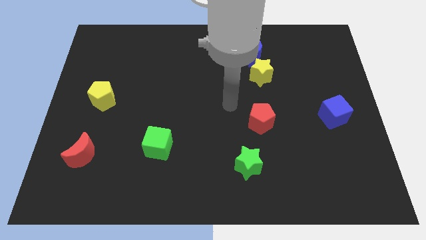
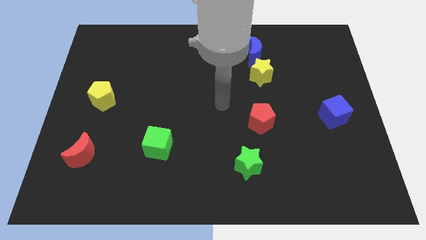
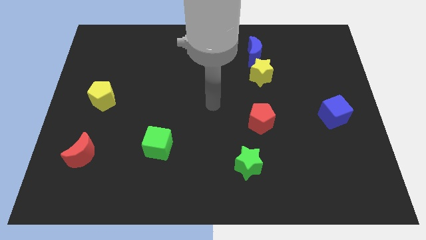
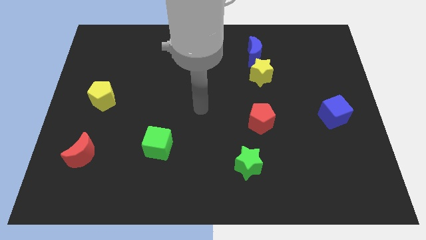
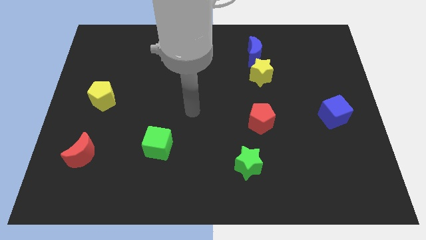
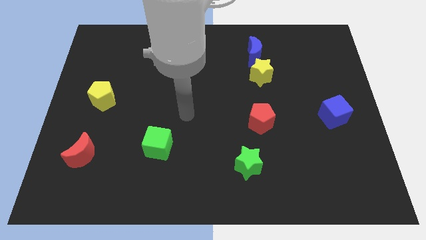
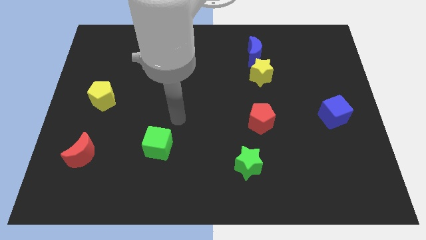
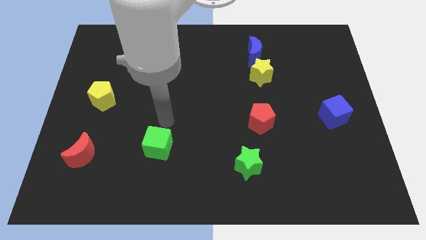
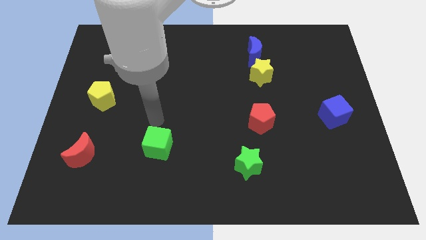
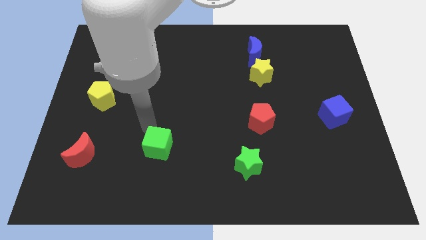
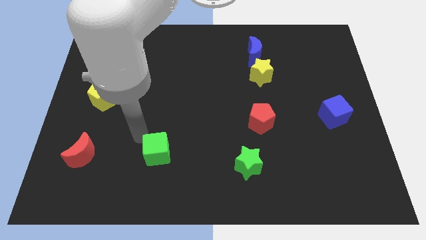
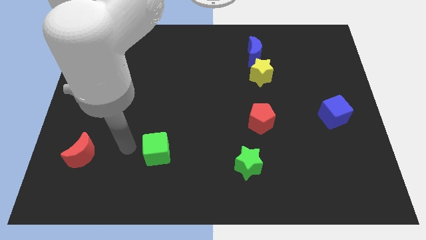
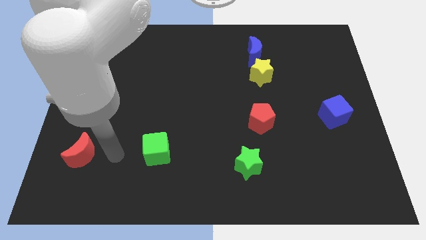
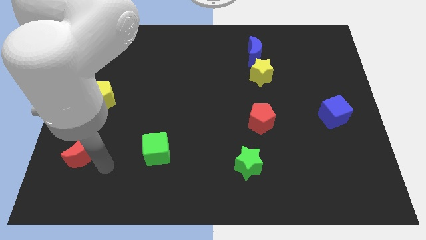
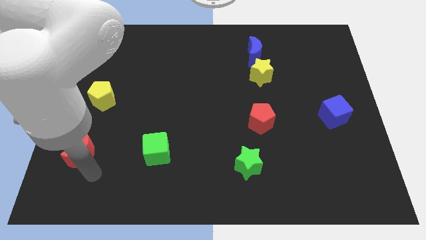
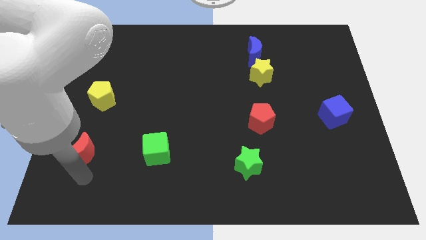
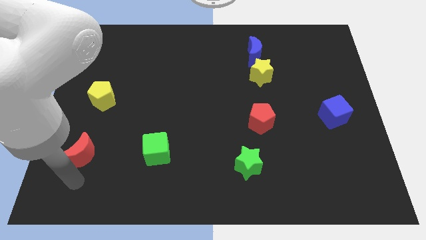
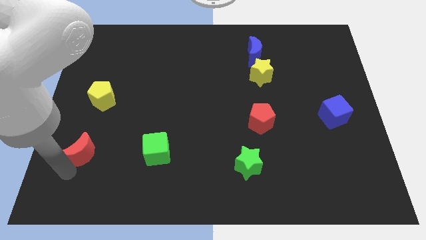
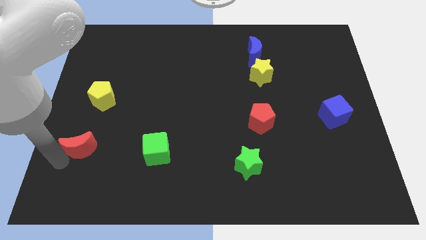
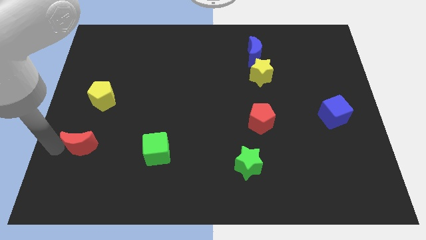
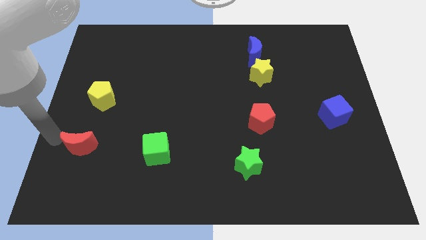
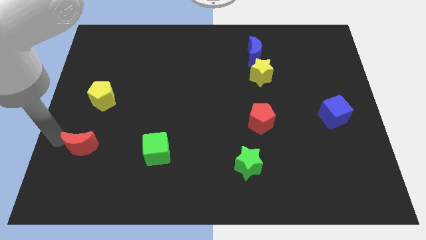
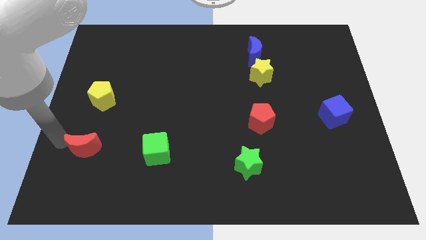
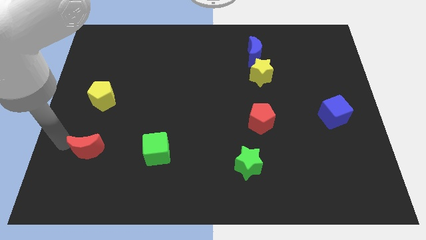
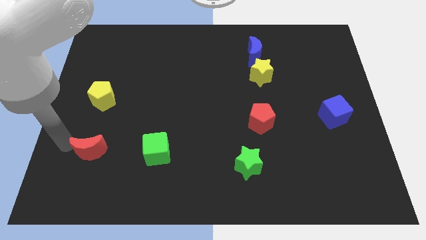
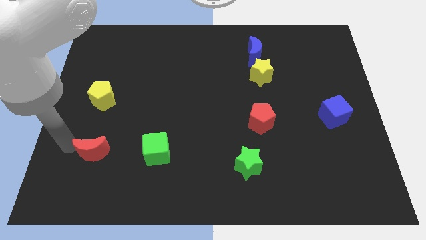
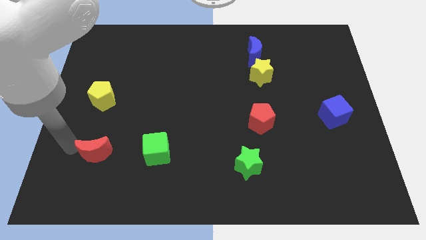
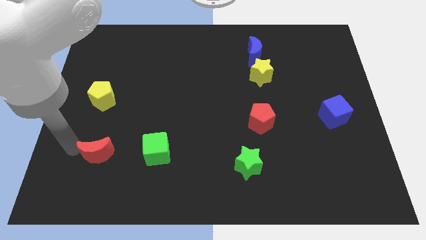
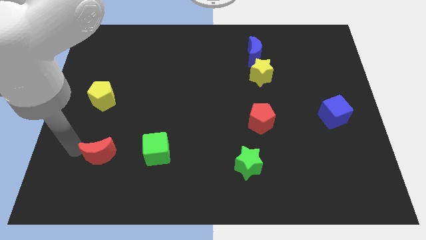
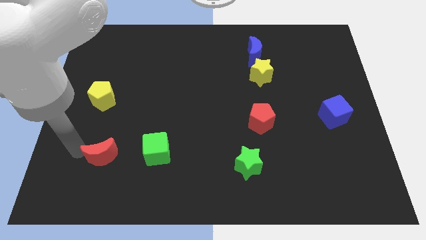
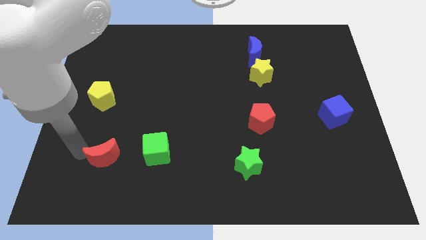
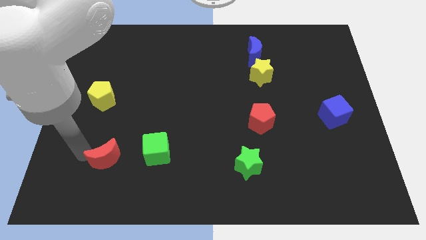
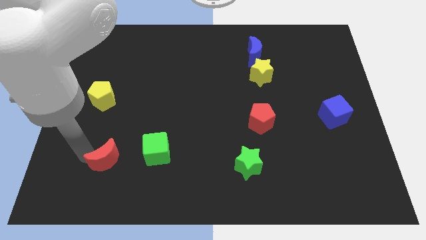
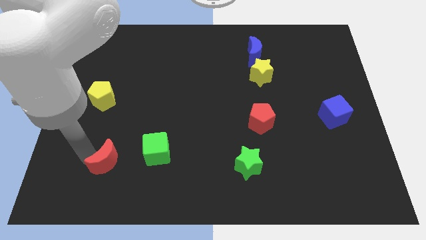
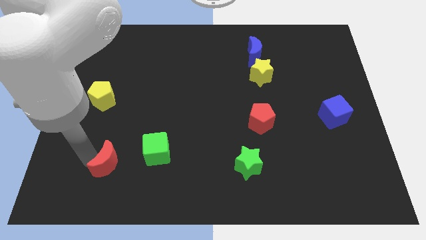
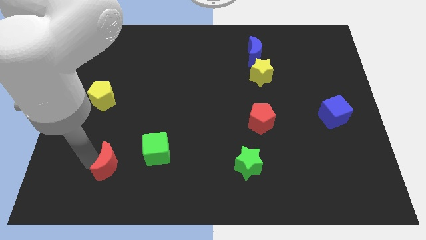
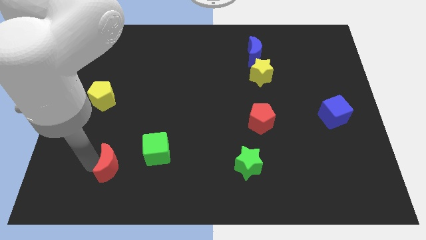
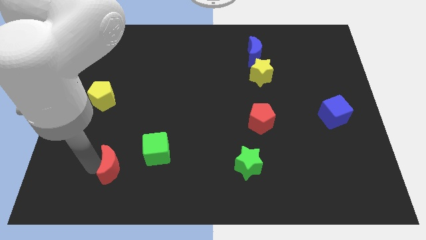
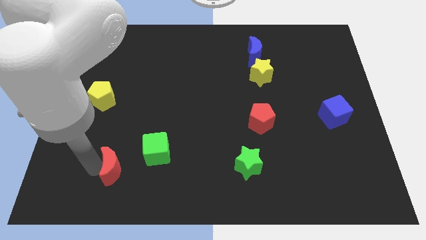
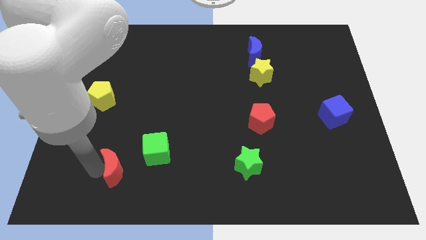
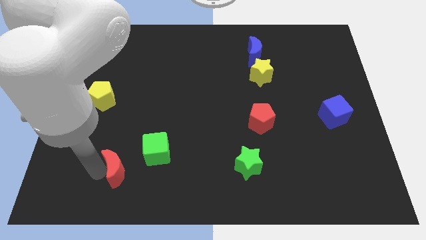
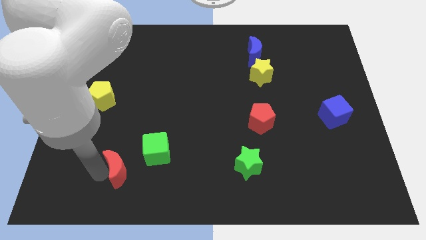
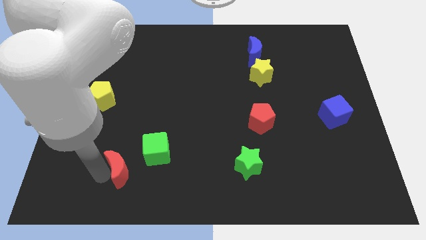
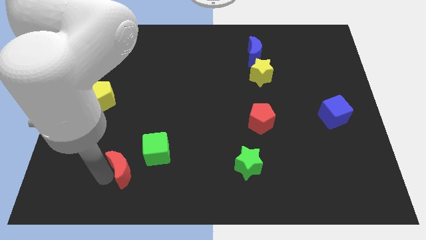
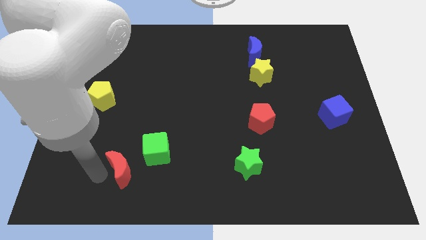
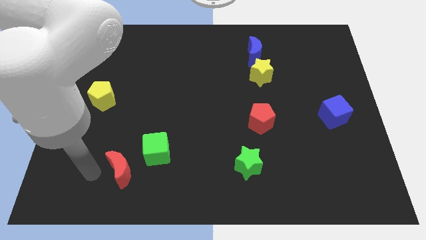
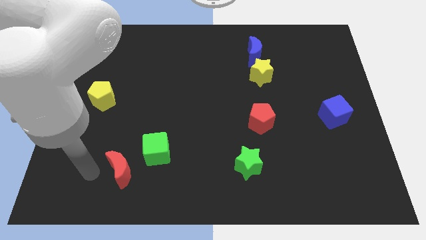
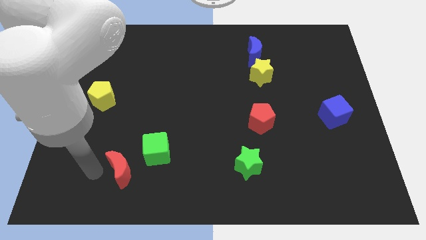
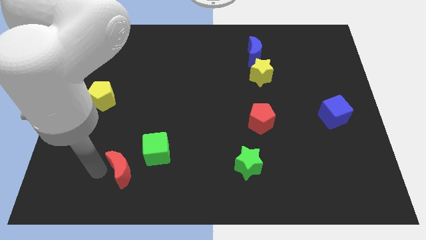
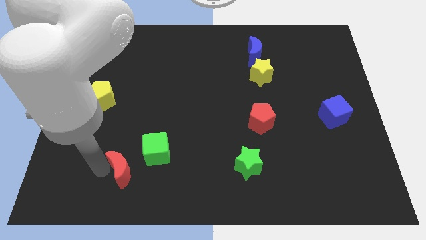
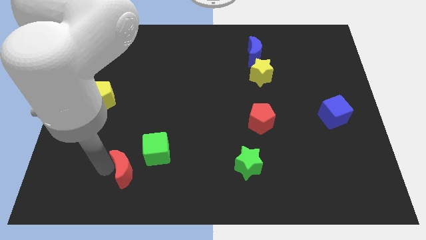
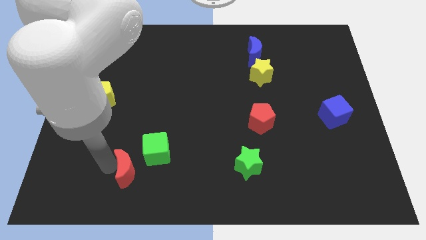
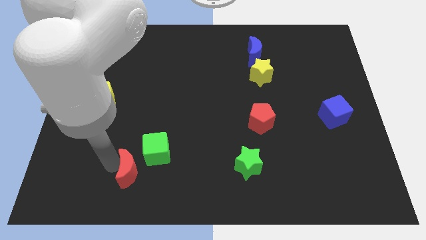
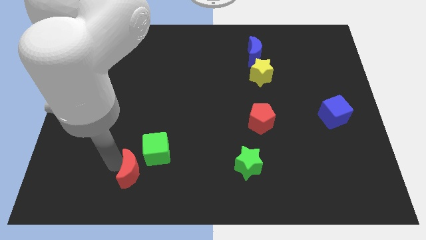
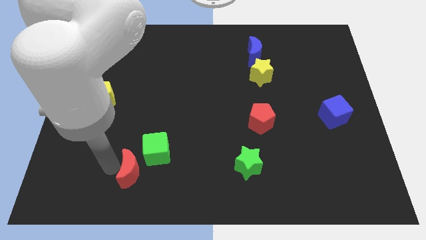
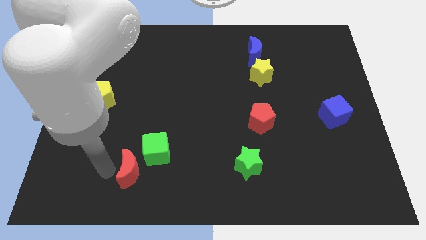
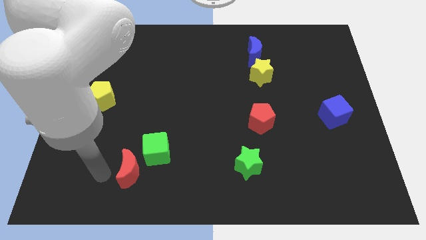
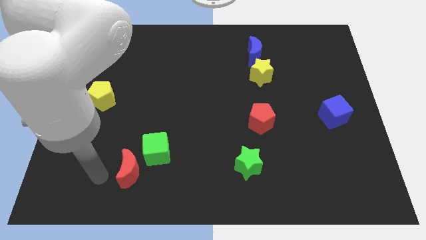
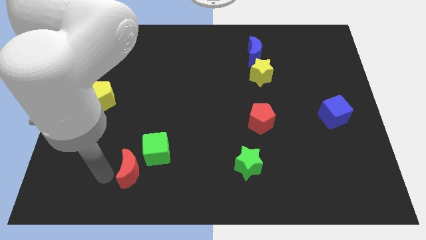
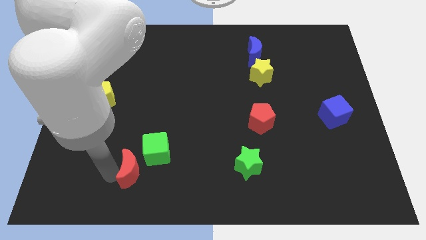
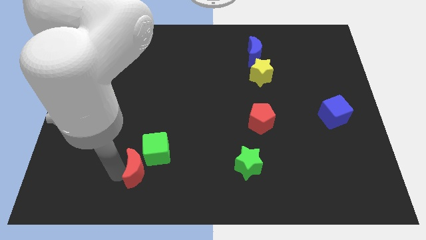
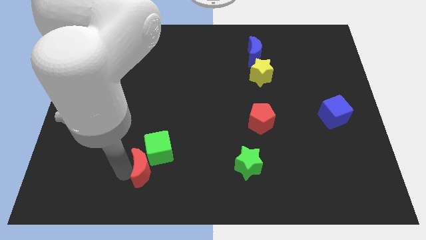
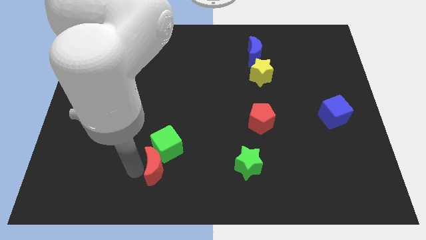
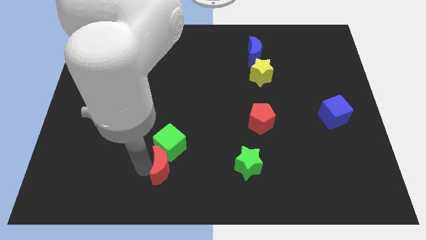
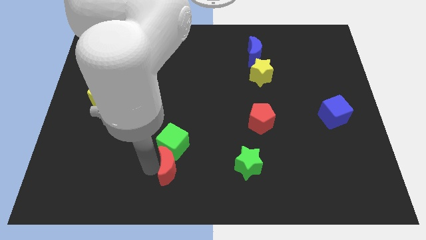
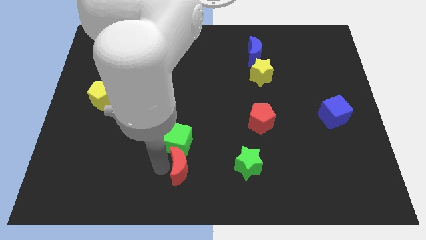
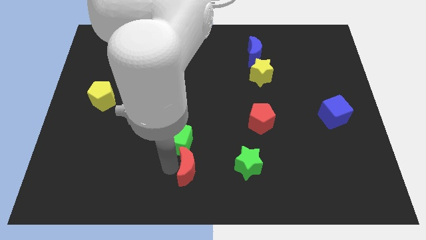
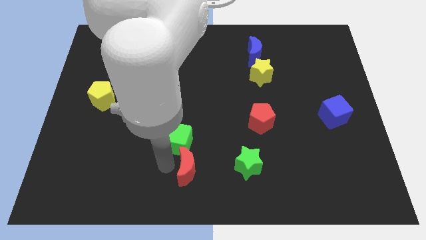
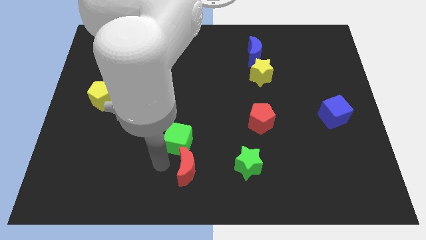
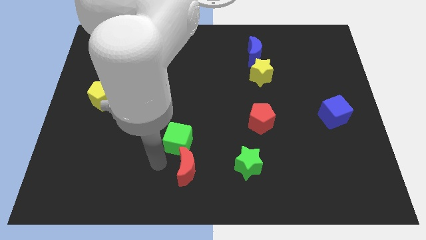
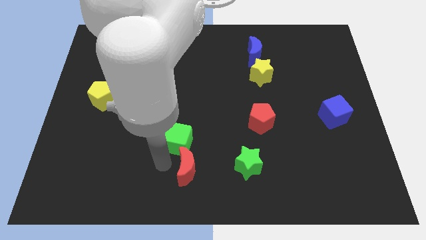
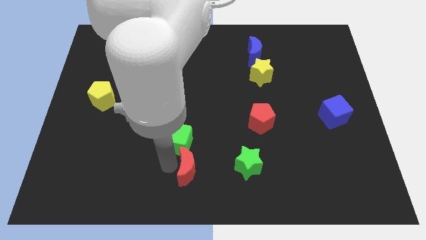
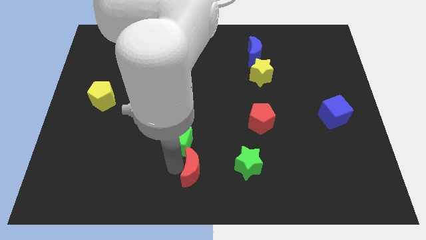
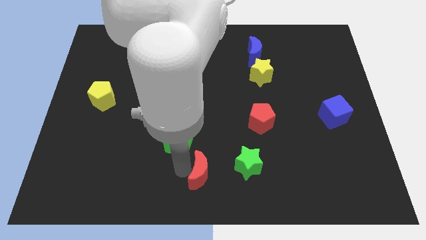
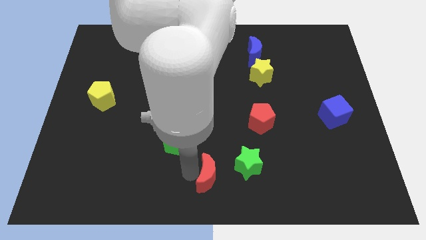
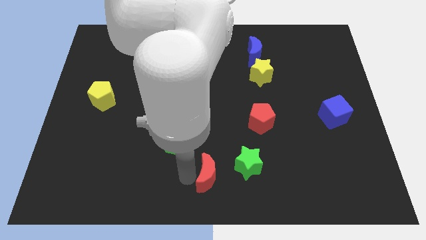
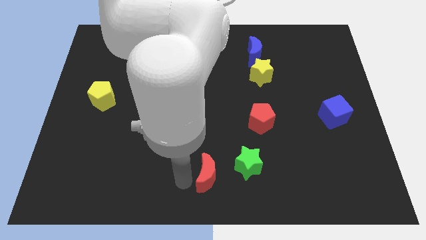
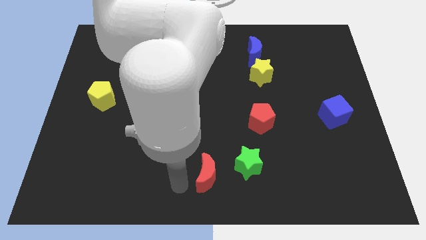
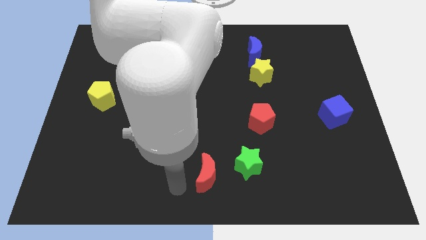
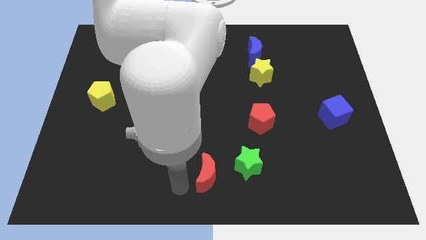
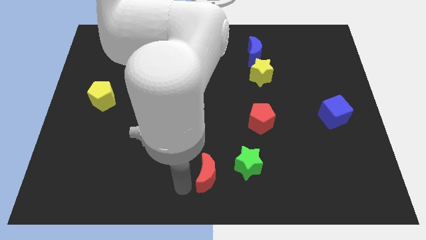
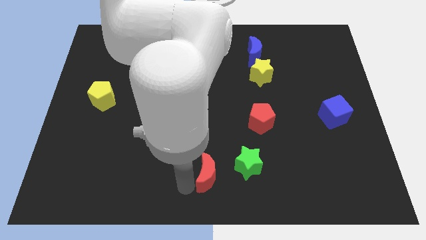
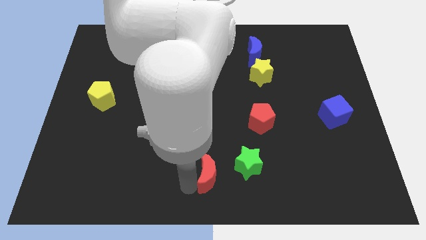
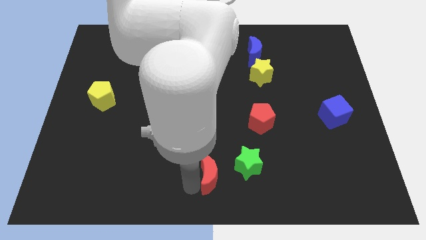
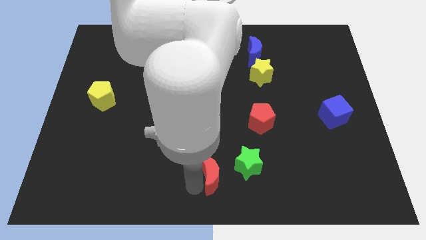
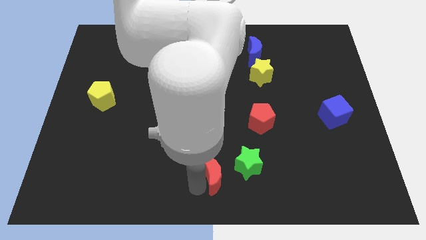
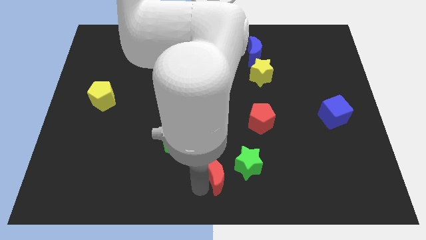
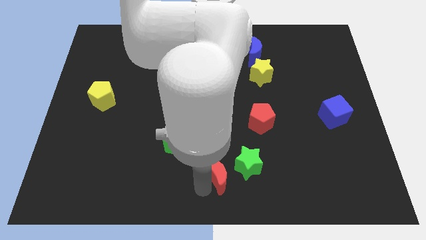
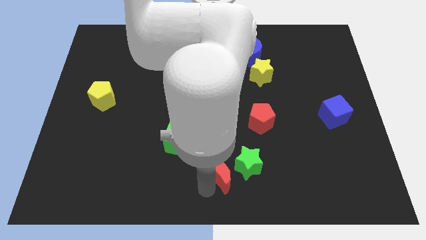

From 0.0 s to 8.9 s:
slide the red moon towards the green star
